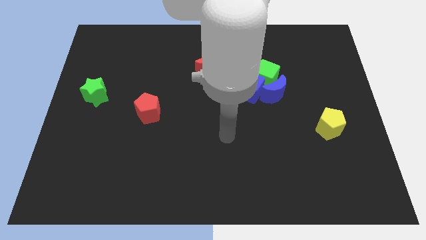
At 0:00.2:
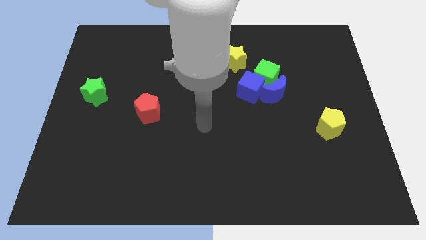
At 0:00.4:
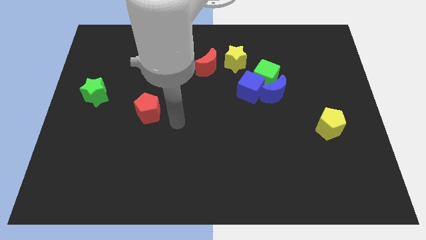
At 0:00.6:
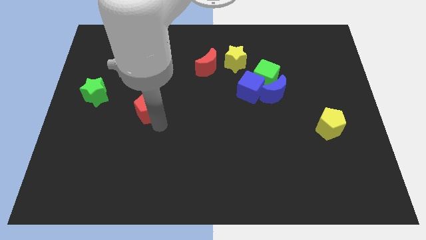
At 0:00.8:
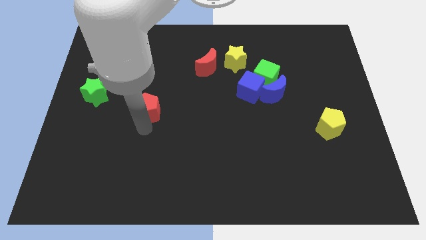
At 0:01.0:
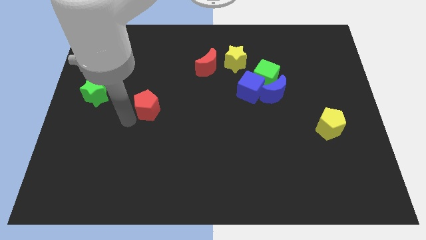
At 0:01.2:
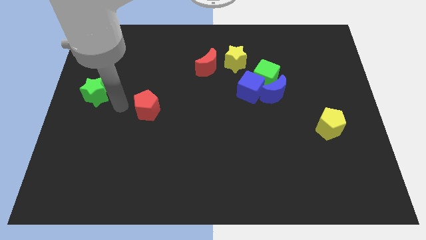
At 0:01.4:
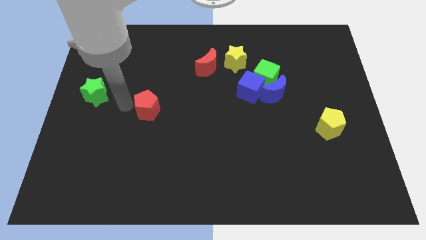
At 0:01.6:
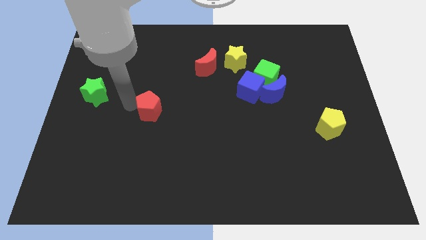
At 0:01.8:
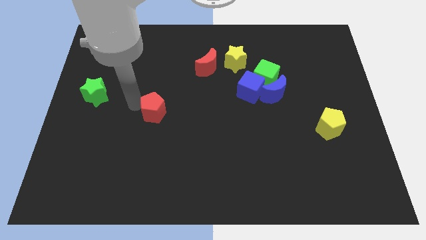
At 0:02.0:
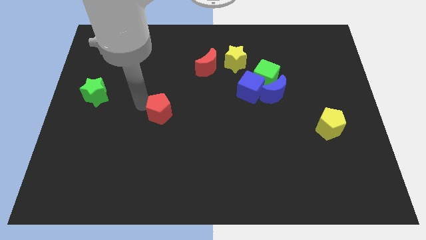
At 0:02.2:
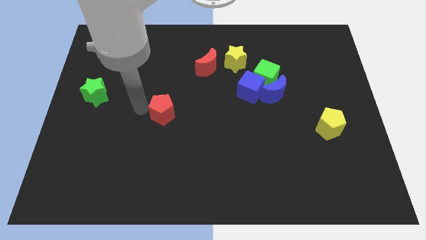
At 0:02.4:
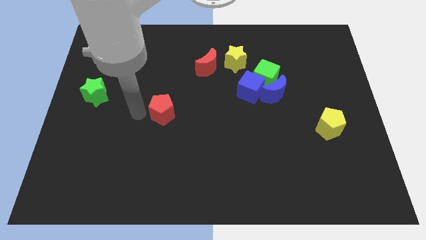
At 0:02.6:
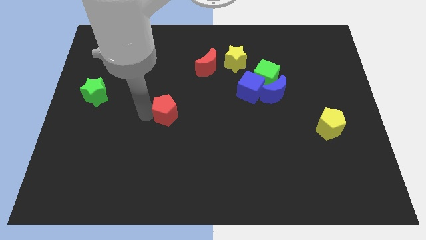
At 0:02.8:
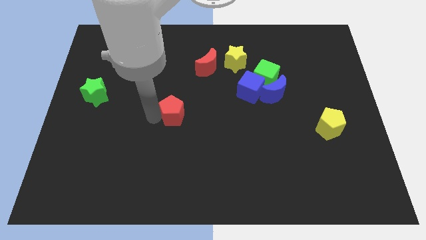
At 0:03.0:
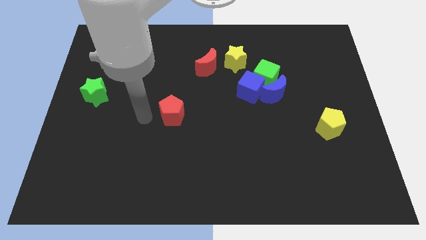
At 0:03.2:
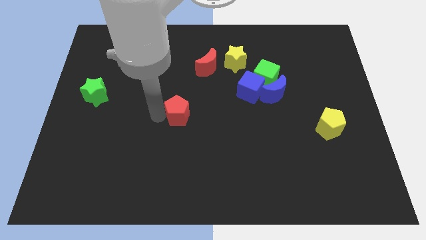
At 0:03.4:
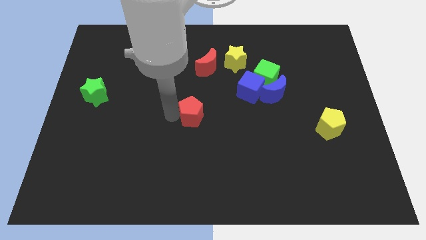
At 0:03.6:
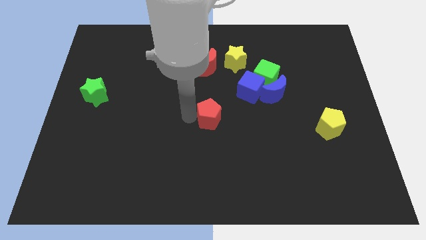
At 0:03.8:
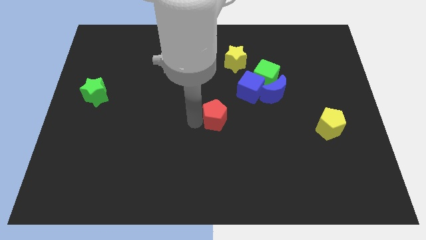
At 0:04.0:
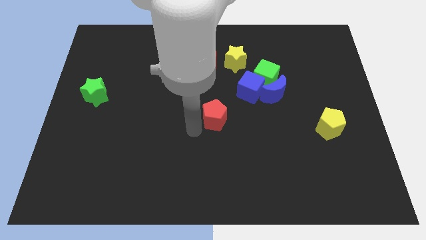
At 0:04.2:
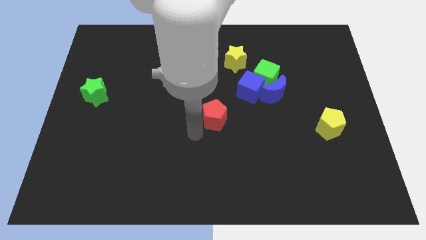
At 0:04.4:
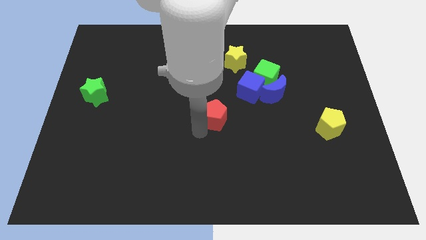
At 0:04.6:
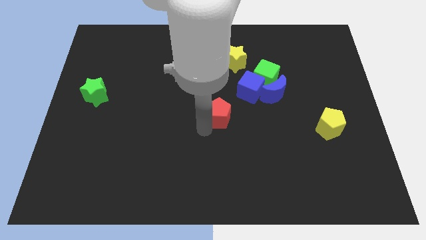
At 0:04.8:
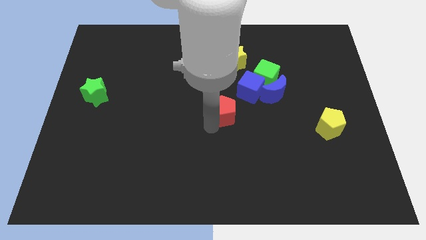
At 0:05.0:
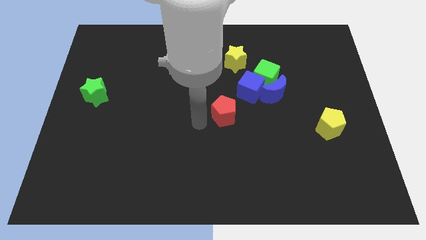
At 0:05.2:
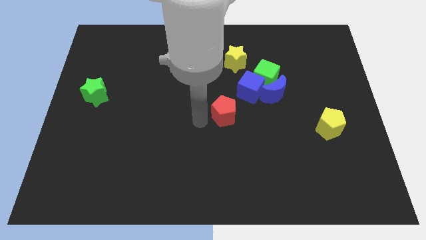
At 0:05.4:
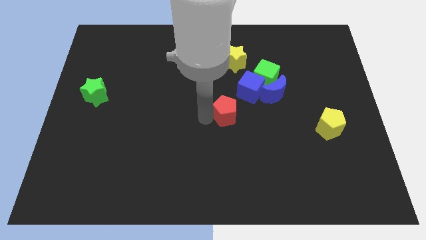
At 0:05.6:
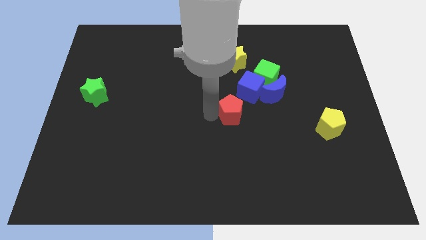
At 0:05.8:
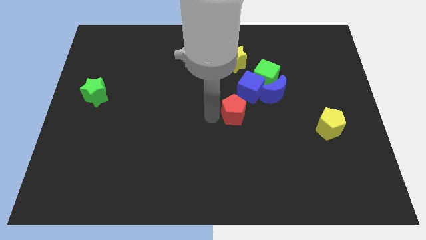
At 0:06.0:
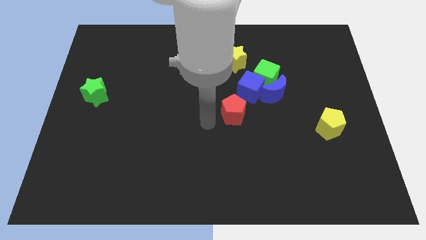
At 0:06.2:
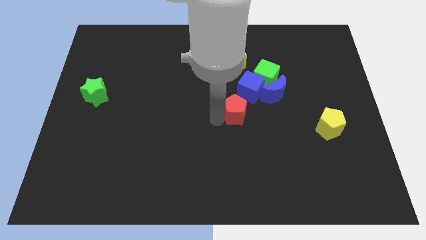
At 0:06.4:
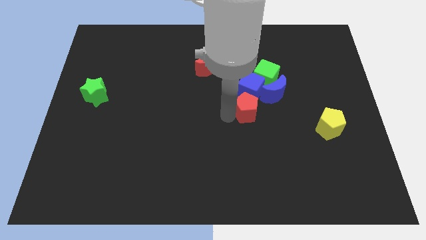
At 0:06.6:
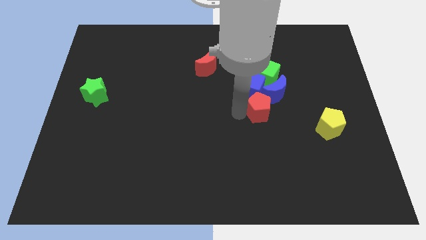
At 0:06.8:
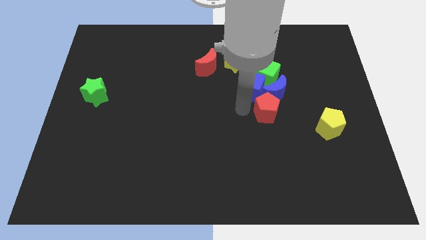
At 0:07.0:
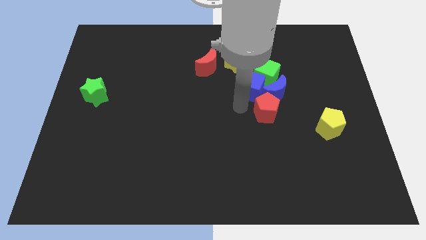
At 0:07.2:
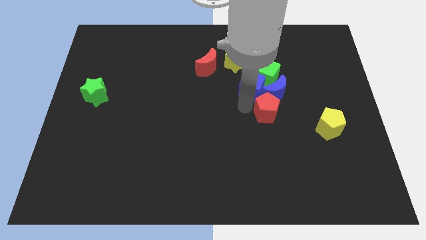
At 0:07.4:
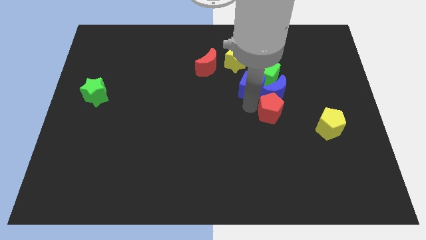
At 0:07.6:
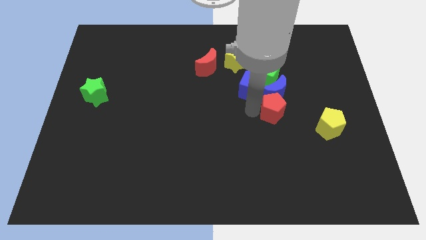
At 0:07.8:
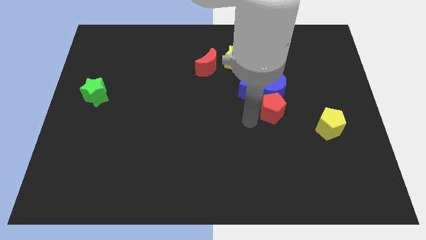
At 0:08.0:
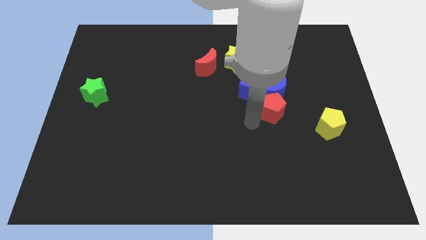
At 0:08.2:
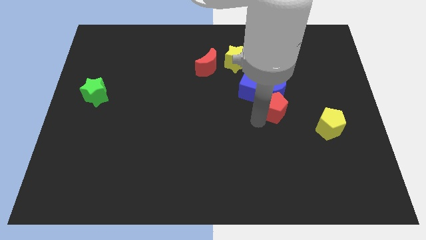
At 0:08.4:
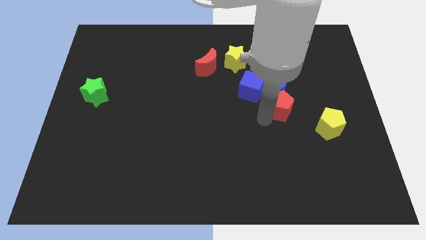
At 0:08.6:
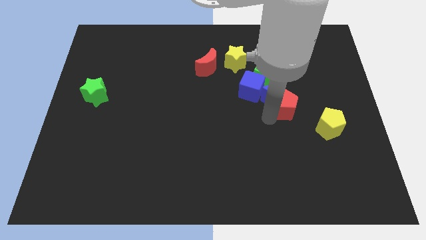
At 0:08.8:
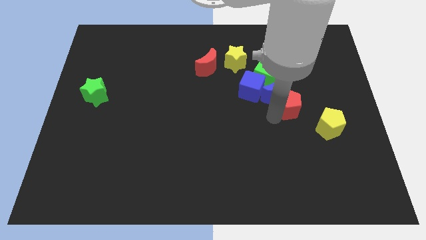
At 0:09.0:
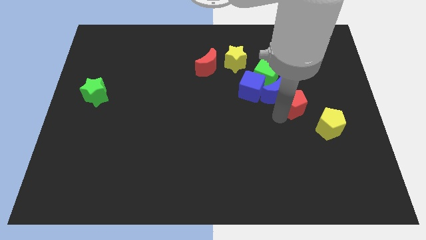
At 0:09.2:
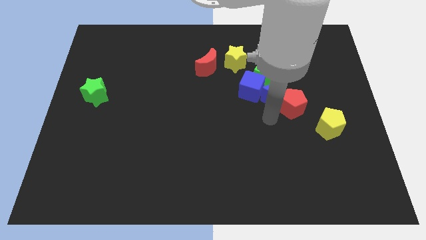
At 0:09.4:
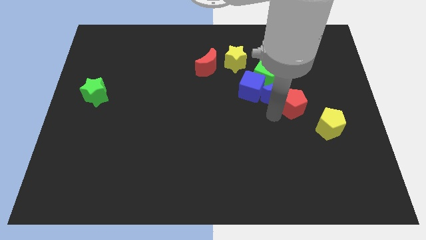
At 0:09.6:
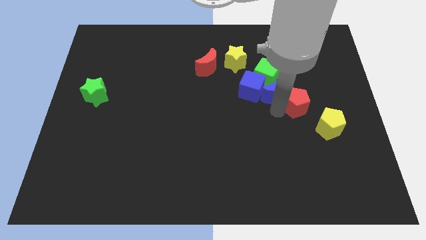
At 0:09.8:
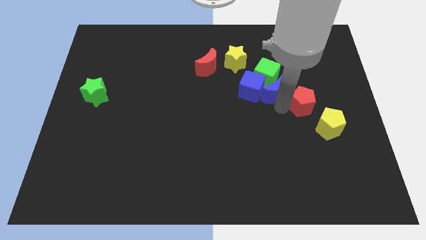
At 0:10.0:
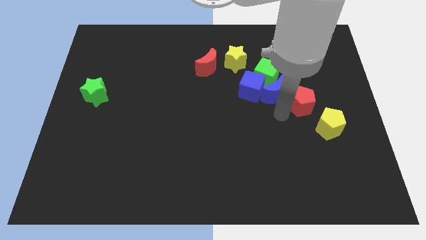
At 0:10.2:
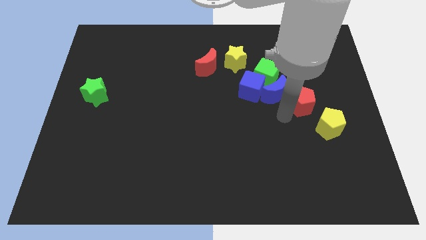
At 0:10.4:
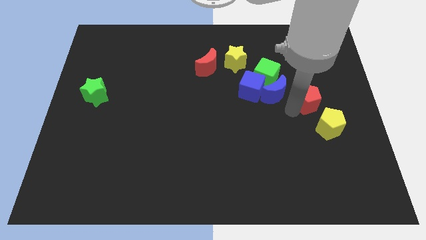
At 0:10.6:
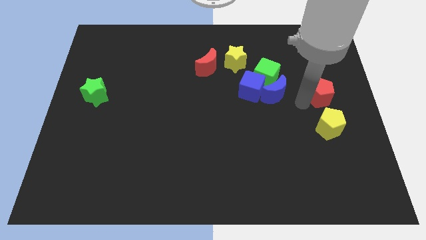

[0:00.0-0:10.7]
put the red pentagon to the right side of the board

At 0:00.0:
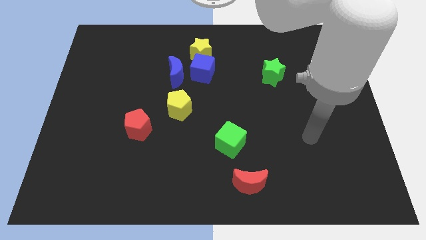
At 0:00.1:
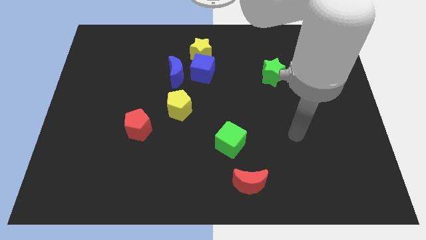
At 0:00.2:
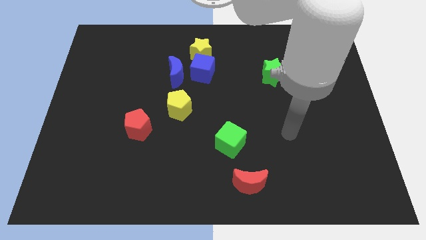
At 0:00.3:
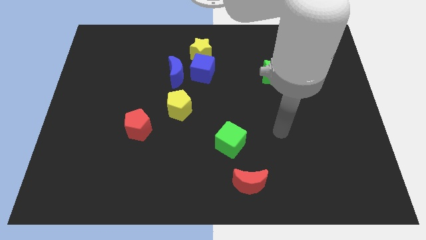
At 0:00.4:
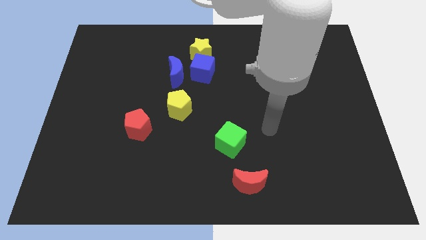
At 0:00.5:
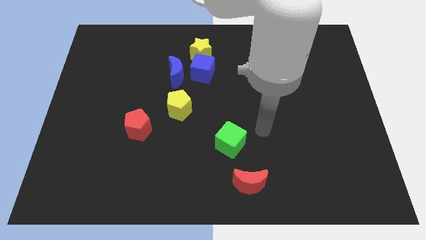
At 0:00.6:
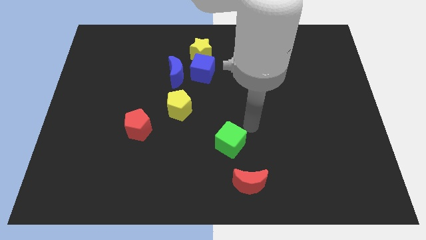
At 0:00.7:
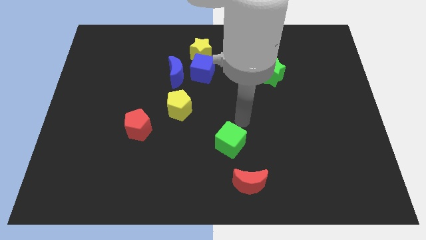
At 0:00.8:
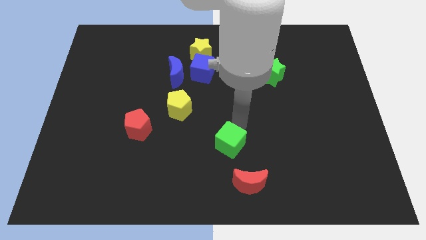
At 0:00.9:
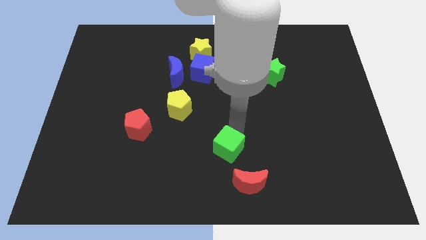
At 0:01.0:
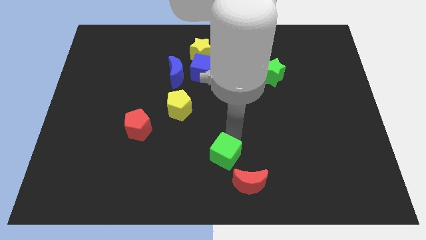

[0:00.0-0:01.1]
slide the green cube to the bottom side
